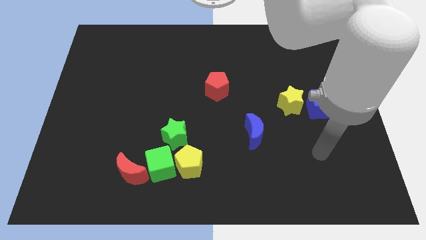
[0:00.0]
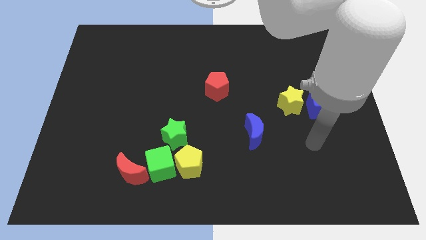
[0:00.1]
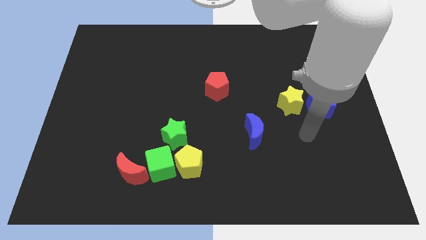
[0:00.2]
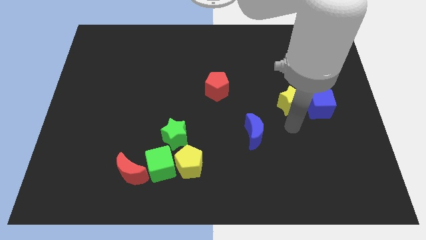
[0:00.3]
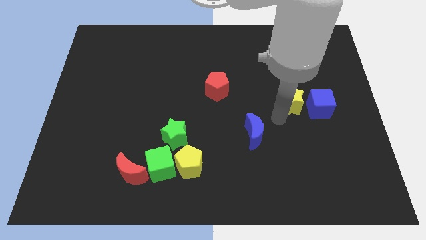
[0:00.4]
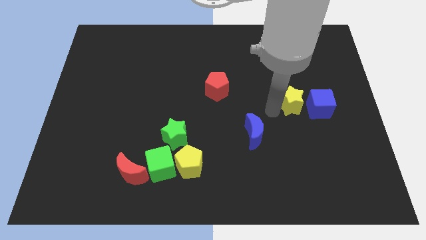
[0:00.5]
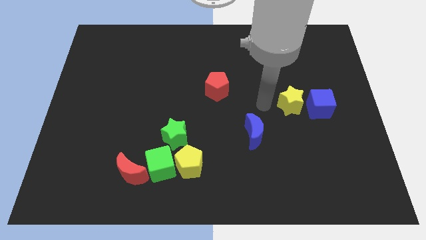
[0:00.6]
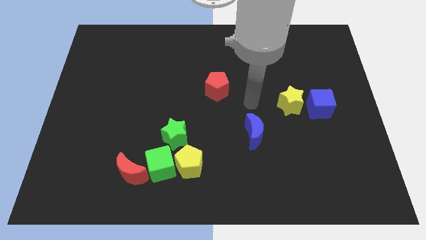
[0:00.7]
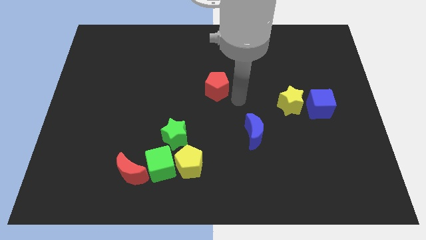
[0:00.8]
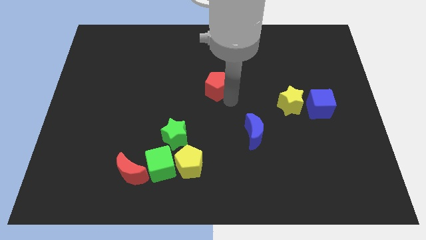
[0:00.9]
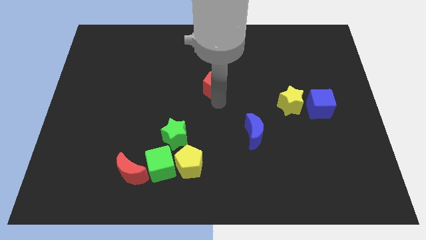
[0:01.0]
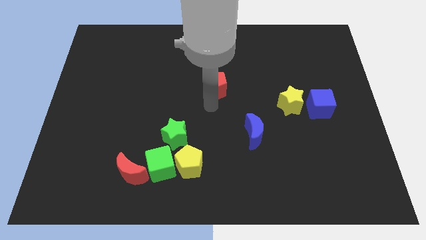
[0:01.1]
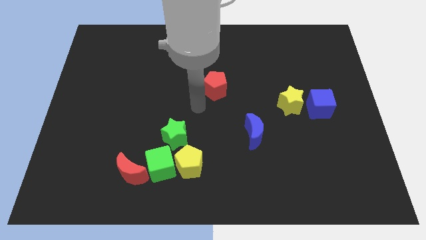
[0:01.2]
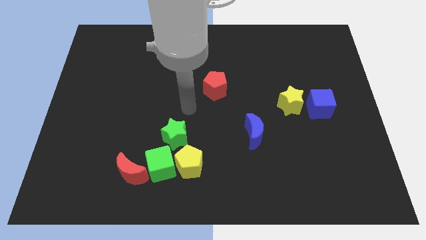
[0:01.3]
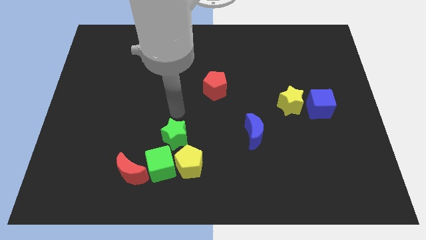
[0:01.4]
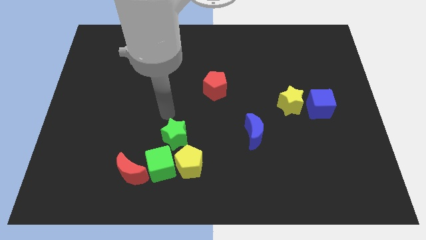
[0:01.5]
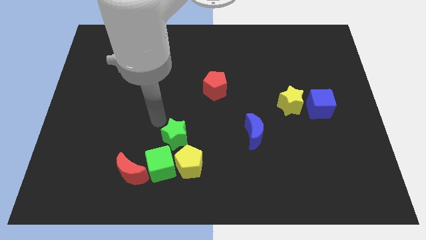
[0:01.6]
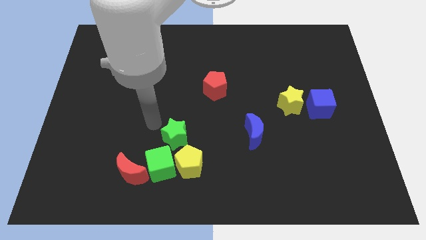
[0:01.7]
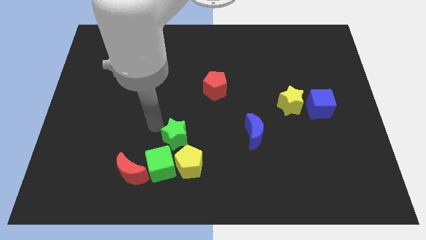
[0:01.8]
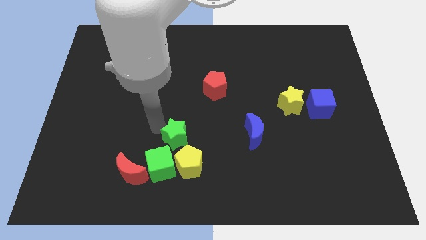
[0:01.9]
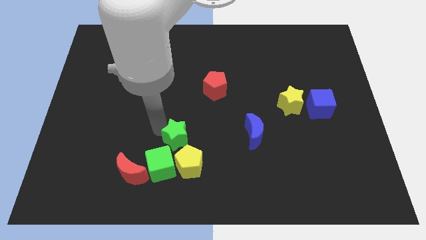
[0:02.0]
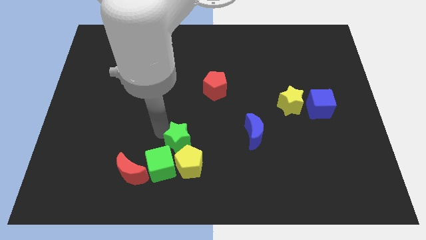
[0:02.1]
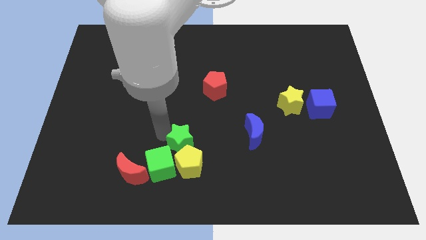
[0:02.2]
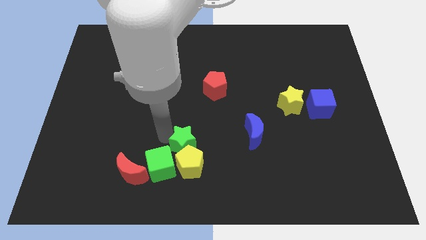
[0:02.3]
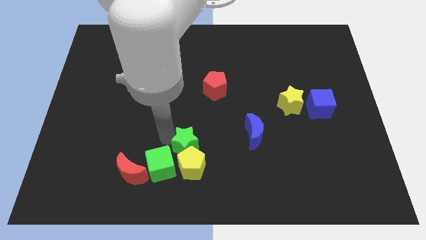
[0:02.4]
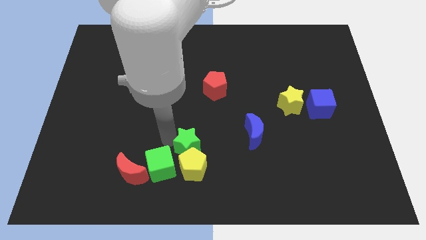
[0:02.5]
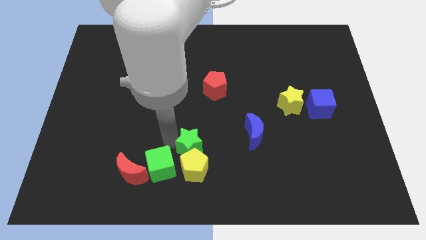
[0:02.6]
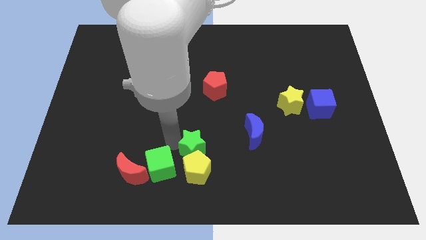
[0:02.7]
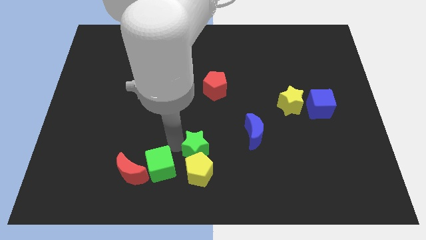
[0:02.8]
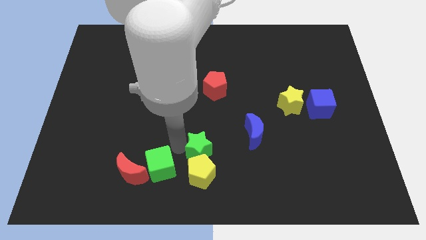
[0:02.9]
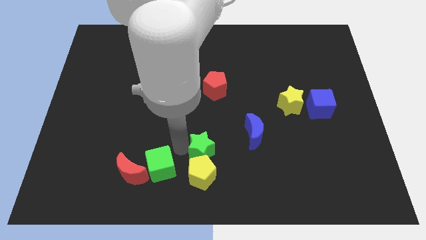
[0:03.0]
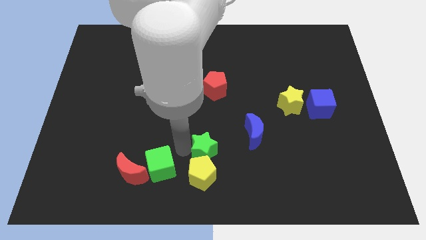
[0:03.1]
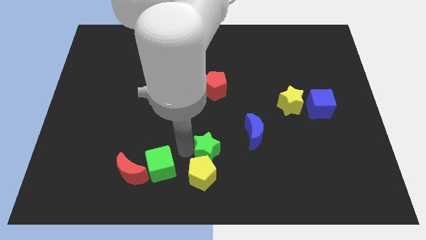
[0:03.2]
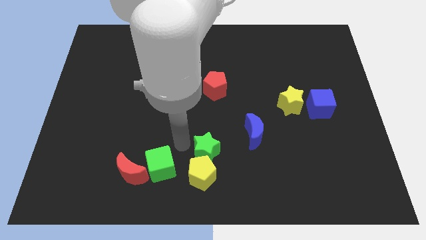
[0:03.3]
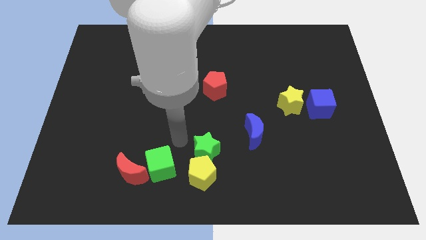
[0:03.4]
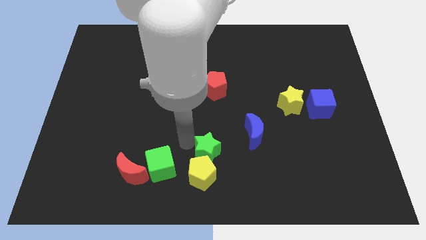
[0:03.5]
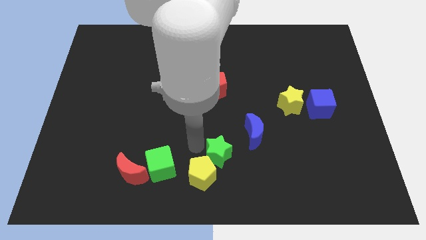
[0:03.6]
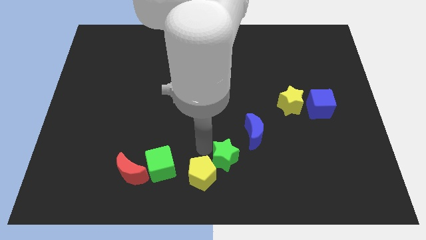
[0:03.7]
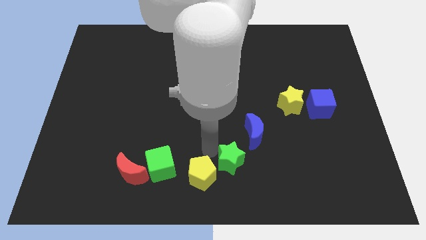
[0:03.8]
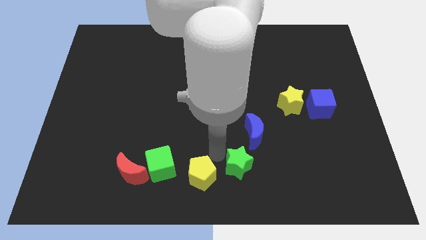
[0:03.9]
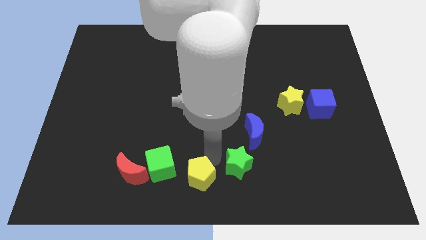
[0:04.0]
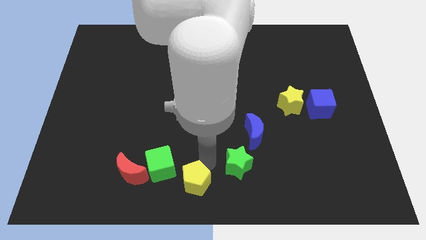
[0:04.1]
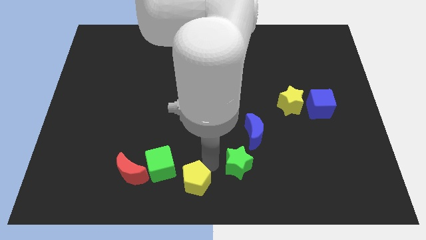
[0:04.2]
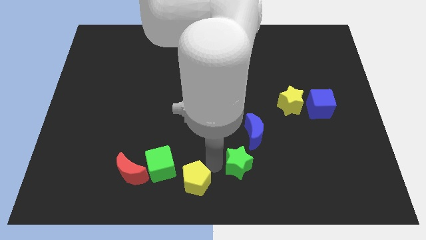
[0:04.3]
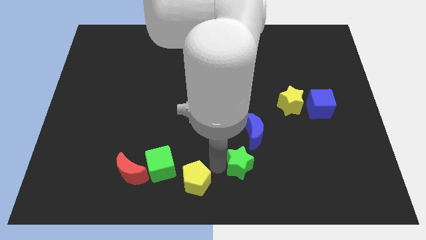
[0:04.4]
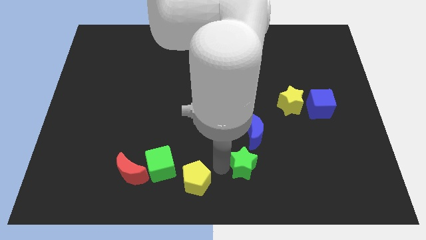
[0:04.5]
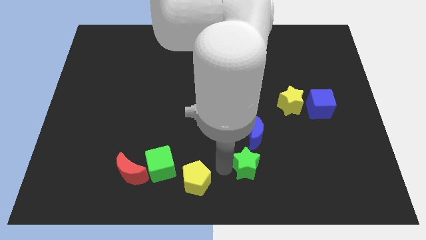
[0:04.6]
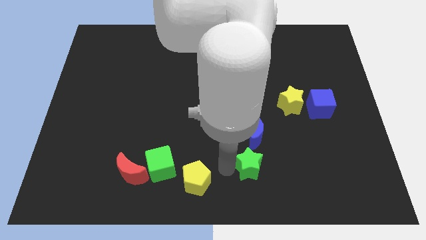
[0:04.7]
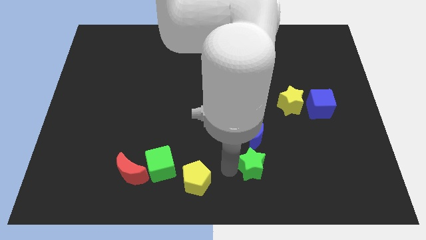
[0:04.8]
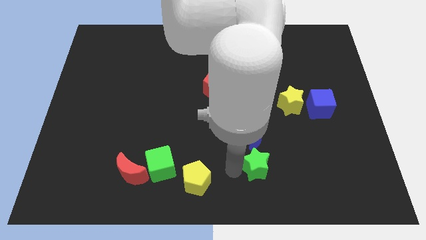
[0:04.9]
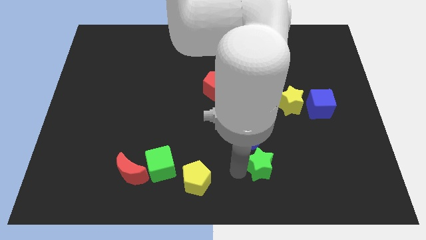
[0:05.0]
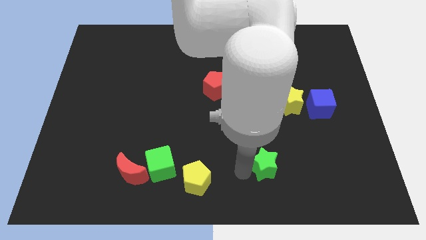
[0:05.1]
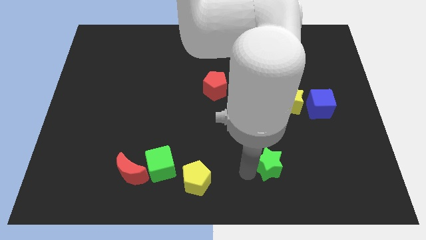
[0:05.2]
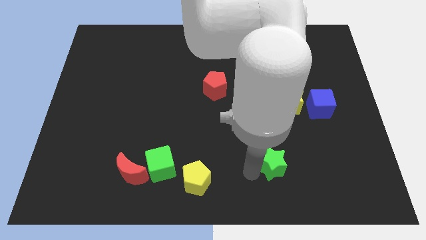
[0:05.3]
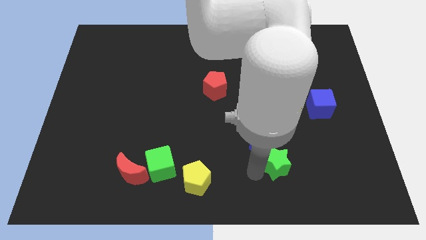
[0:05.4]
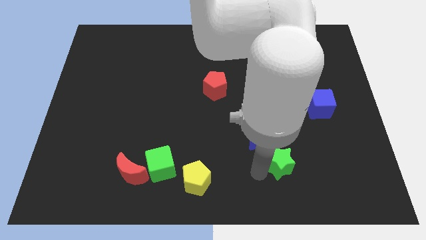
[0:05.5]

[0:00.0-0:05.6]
push the green star right

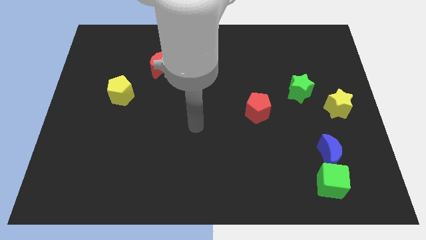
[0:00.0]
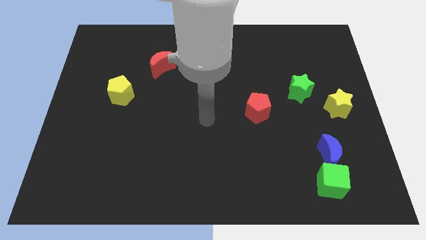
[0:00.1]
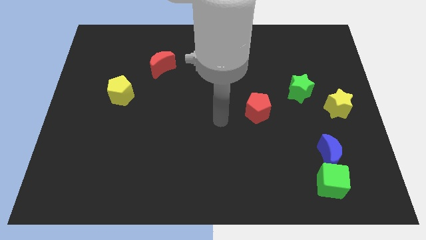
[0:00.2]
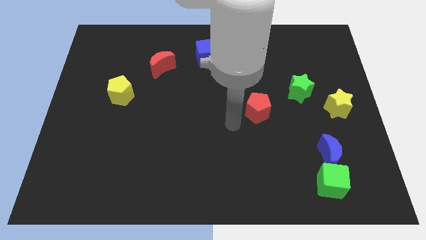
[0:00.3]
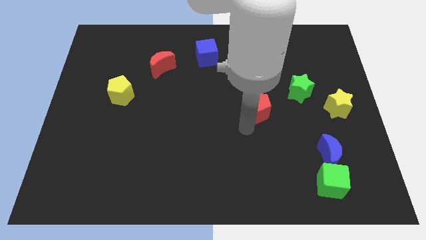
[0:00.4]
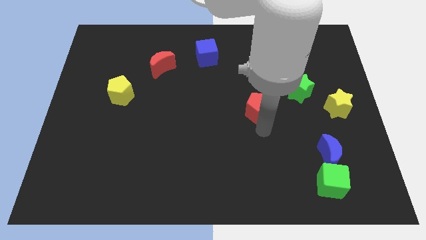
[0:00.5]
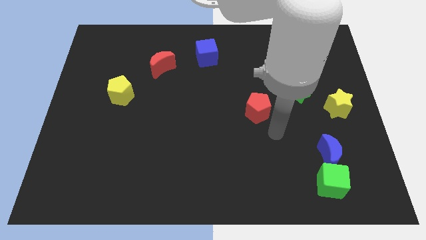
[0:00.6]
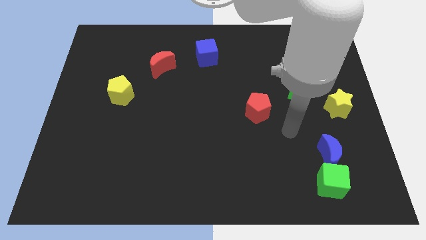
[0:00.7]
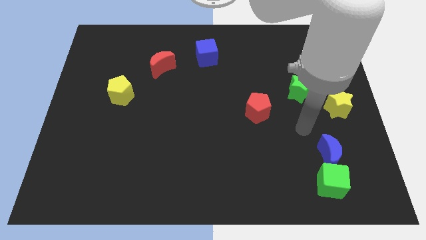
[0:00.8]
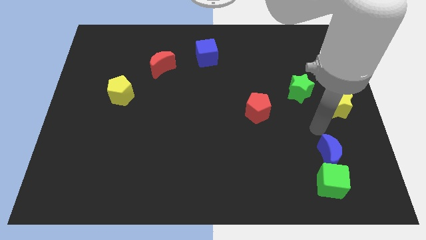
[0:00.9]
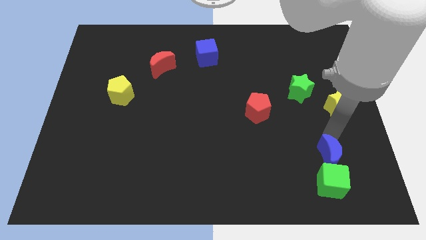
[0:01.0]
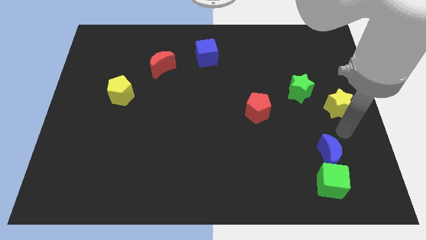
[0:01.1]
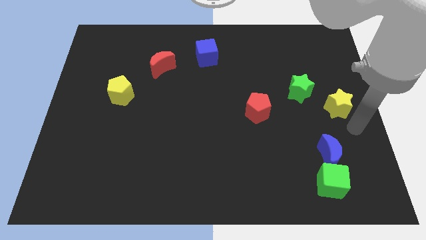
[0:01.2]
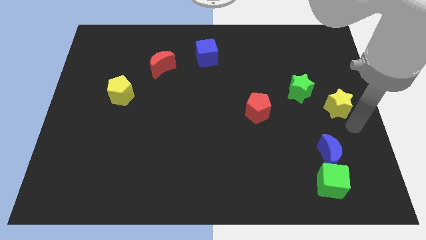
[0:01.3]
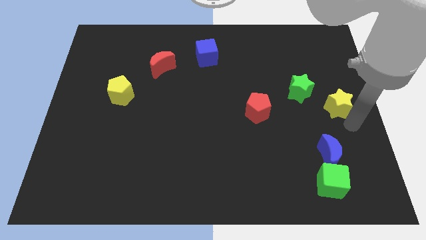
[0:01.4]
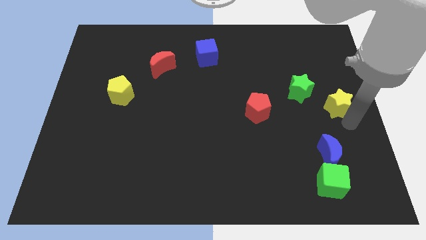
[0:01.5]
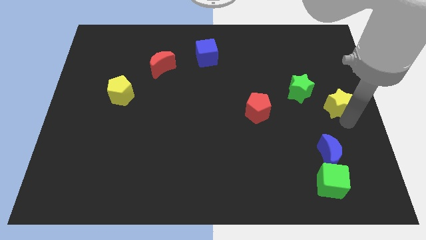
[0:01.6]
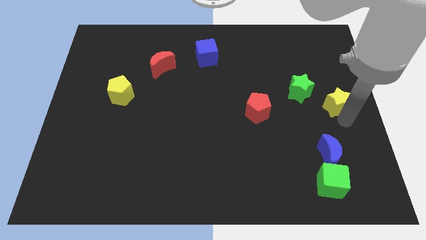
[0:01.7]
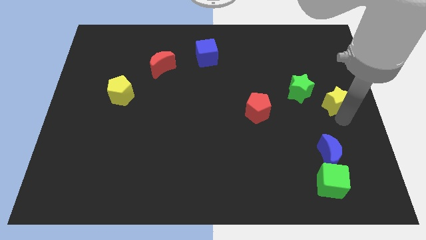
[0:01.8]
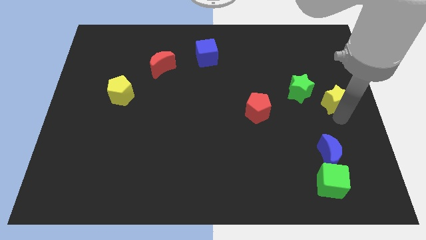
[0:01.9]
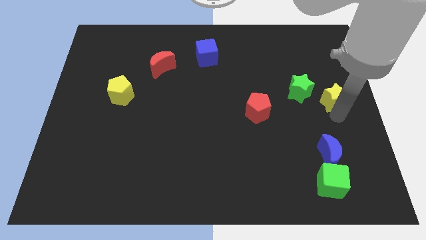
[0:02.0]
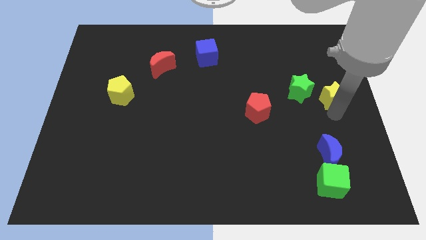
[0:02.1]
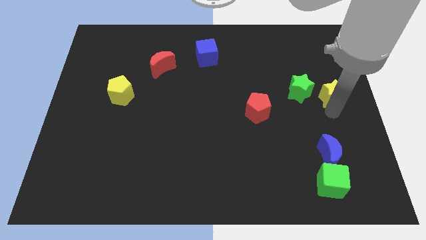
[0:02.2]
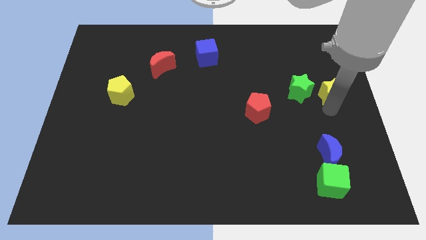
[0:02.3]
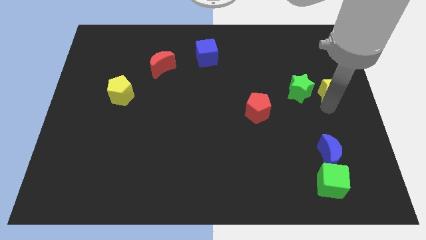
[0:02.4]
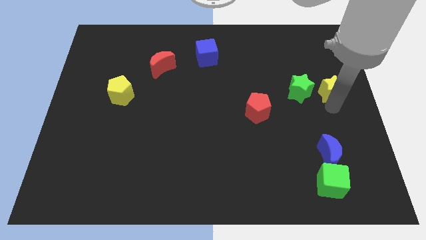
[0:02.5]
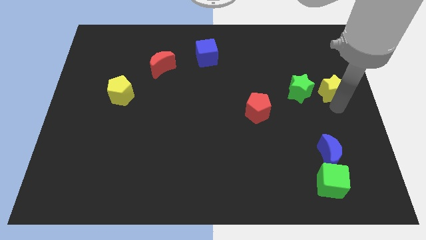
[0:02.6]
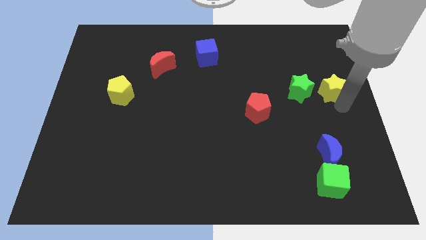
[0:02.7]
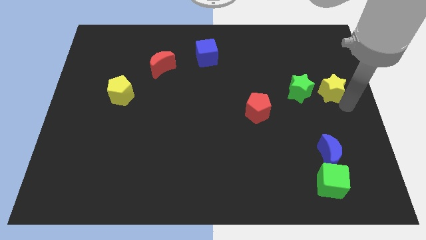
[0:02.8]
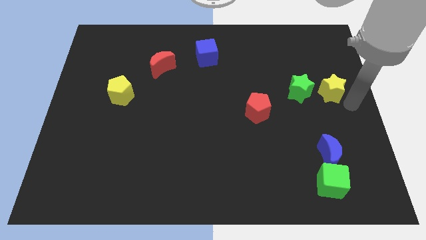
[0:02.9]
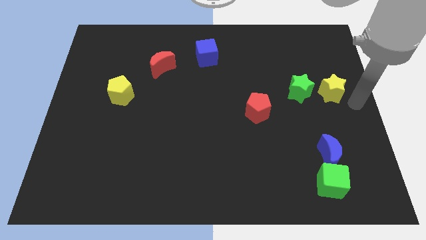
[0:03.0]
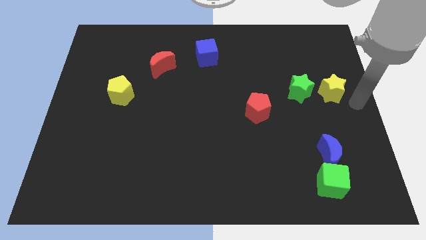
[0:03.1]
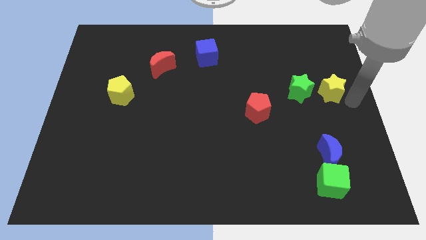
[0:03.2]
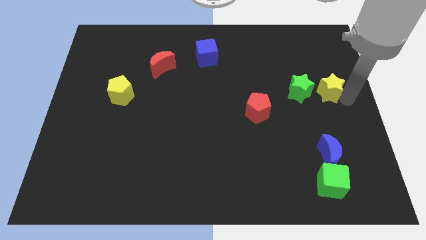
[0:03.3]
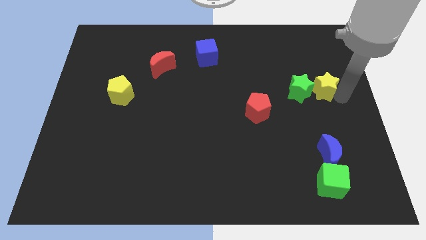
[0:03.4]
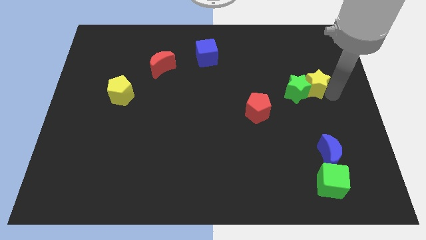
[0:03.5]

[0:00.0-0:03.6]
slide the yellow star up and left diagonally a bit
